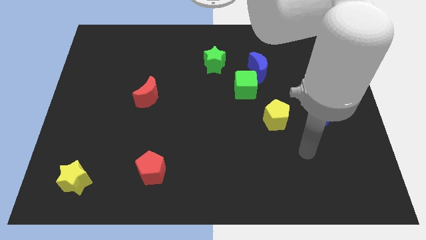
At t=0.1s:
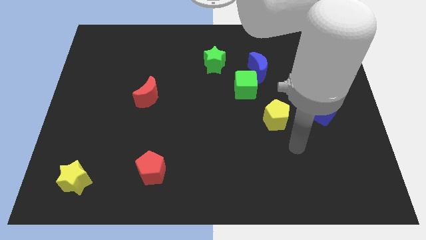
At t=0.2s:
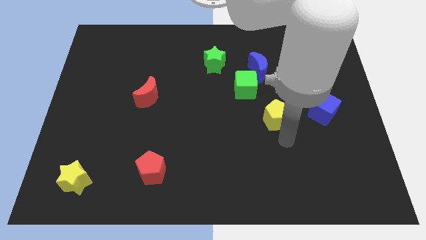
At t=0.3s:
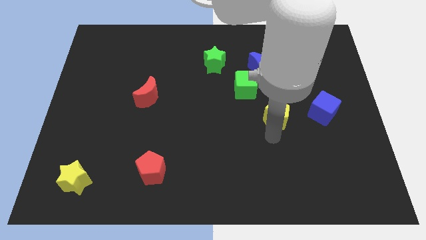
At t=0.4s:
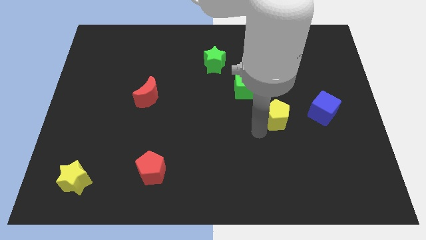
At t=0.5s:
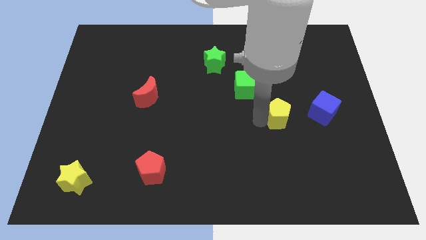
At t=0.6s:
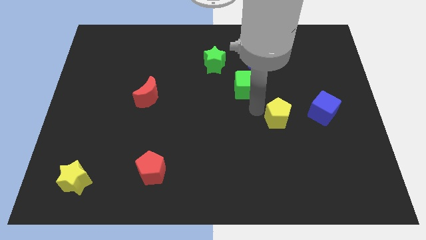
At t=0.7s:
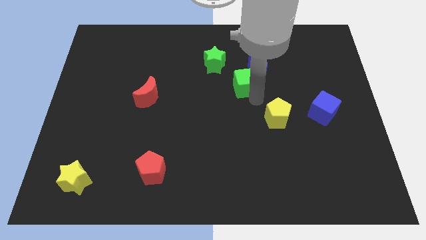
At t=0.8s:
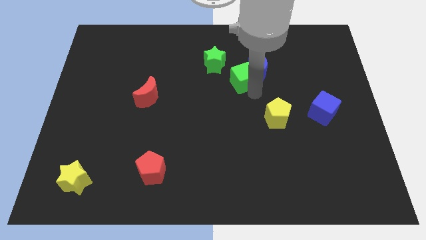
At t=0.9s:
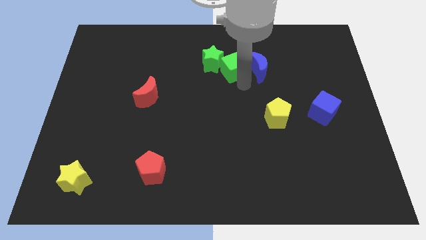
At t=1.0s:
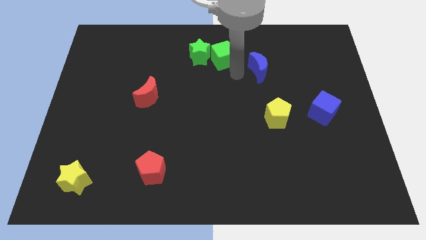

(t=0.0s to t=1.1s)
separate the blue moon from the green cube

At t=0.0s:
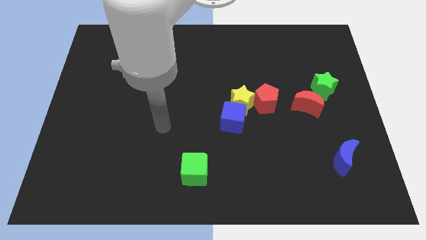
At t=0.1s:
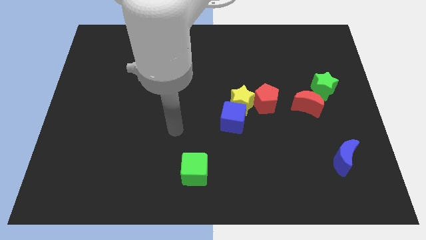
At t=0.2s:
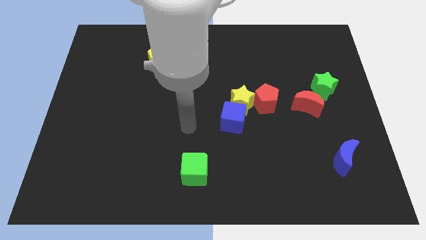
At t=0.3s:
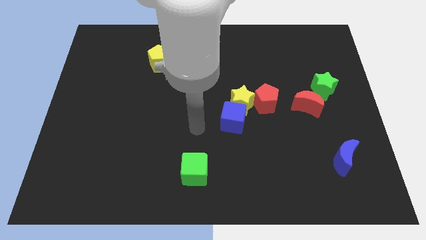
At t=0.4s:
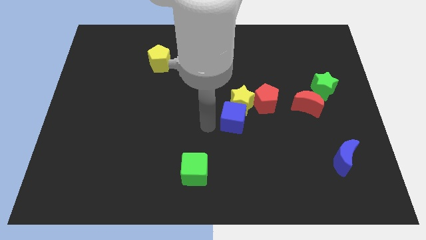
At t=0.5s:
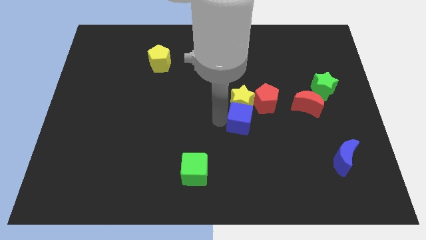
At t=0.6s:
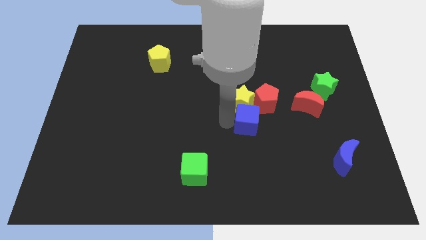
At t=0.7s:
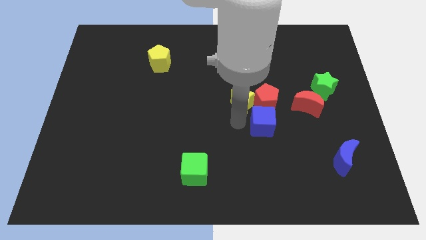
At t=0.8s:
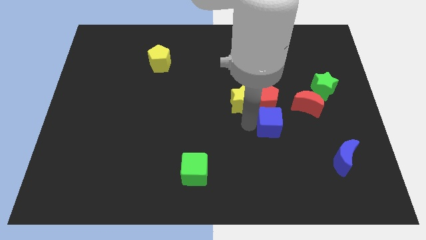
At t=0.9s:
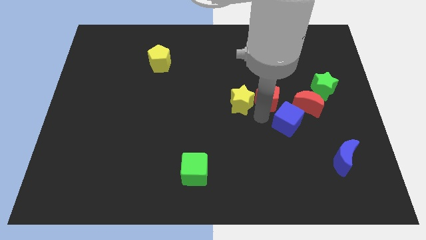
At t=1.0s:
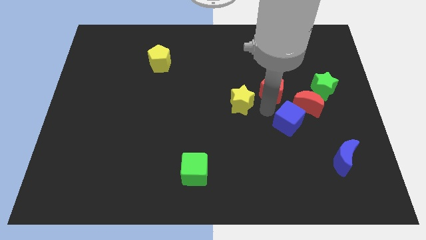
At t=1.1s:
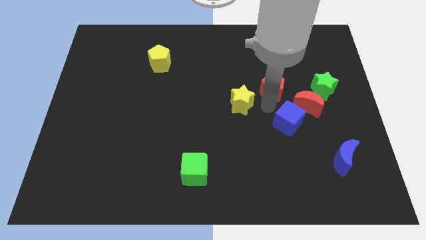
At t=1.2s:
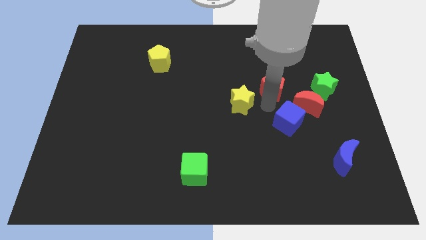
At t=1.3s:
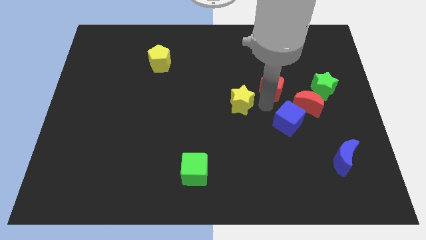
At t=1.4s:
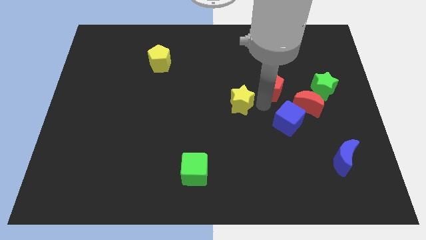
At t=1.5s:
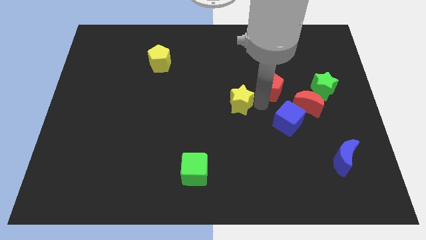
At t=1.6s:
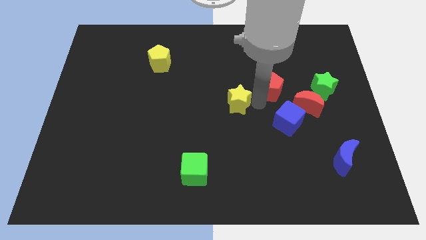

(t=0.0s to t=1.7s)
separate the yellow star from the blue cube and red pentagon

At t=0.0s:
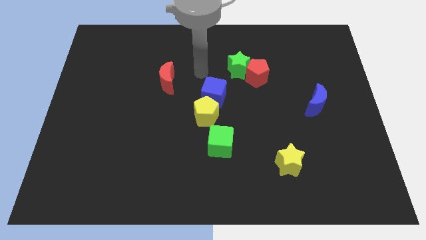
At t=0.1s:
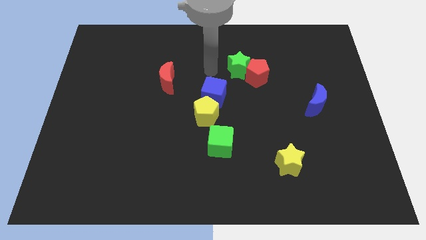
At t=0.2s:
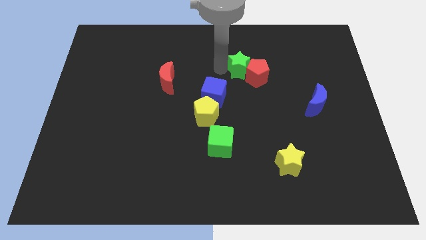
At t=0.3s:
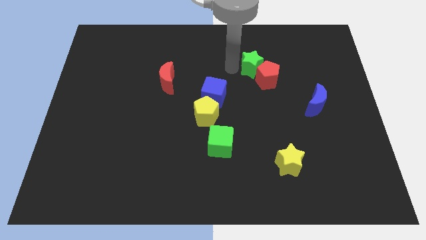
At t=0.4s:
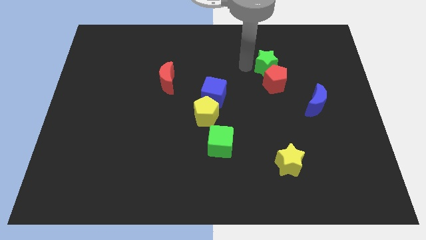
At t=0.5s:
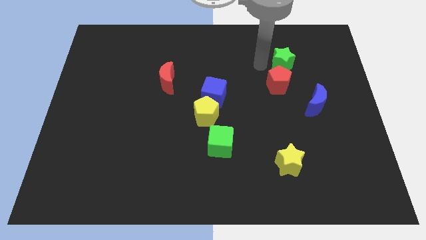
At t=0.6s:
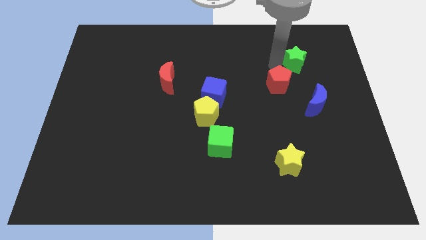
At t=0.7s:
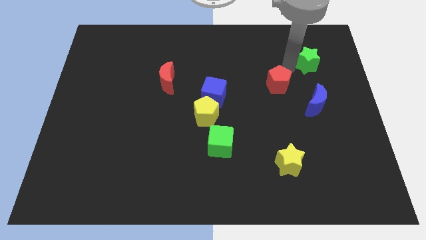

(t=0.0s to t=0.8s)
pull the red pentagon apart from the green star

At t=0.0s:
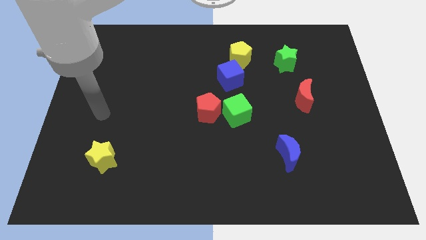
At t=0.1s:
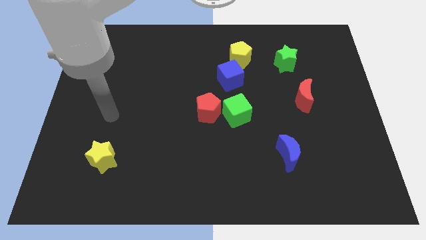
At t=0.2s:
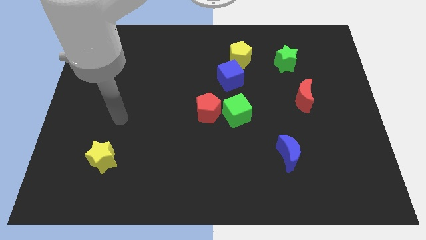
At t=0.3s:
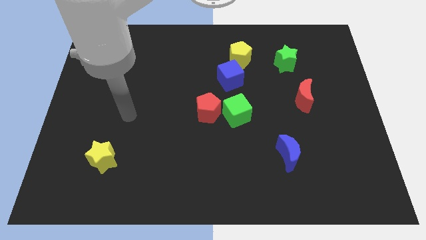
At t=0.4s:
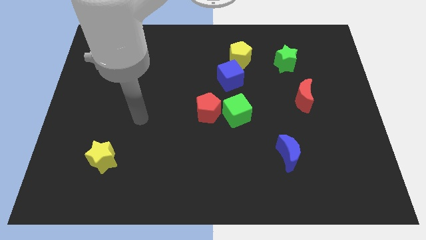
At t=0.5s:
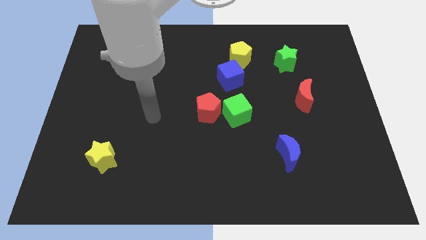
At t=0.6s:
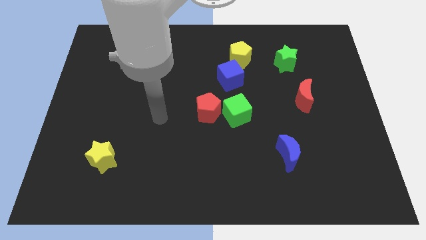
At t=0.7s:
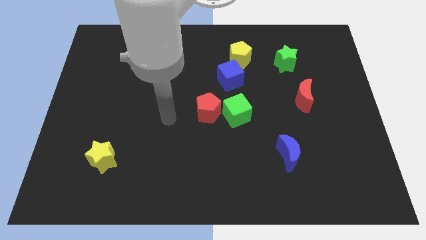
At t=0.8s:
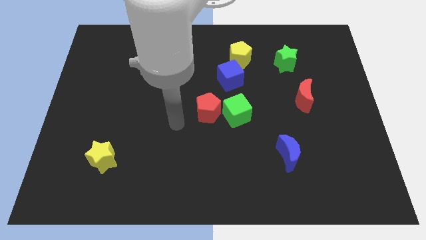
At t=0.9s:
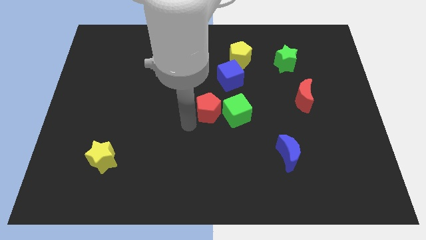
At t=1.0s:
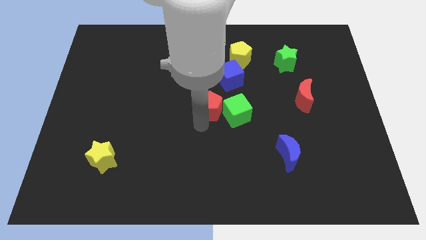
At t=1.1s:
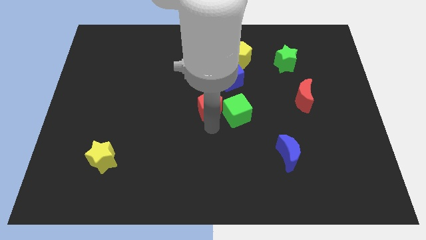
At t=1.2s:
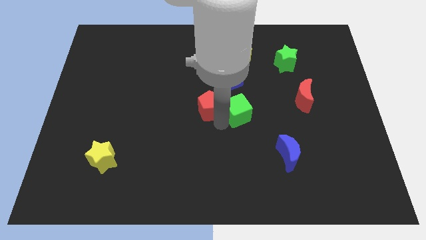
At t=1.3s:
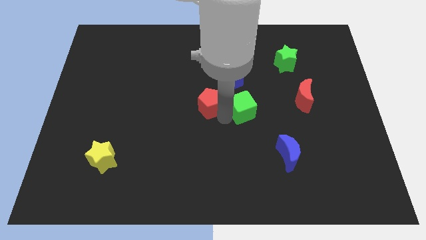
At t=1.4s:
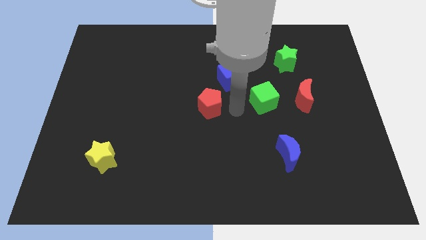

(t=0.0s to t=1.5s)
pull the red pentagon apart from the green cube

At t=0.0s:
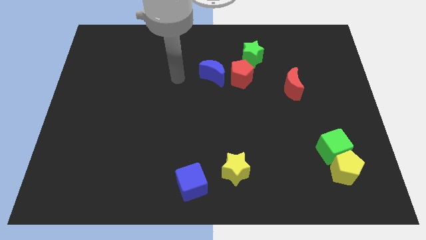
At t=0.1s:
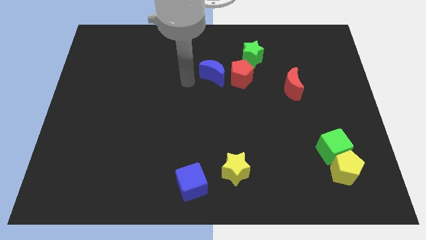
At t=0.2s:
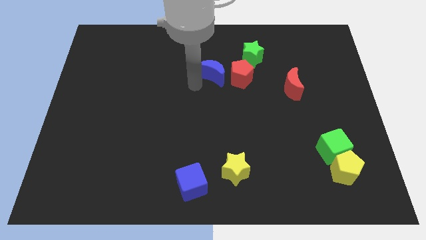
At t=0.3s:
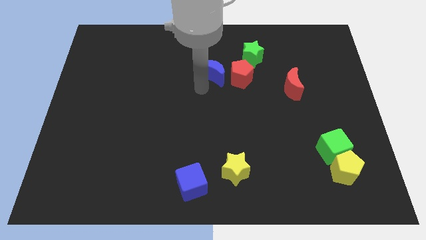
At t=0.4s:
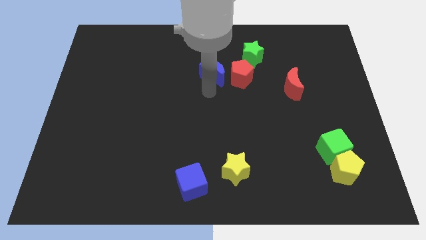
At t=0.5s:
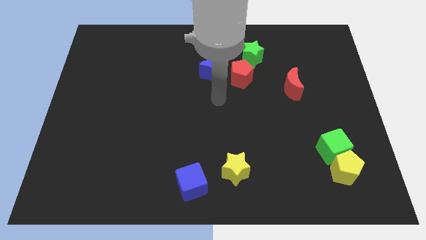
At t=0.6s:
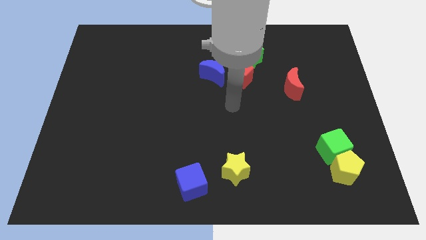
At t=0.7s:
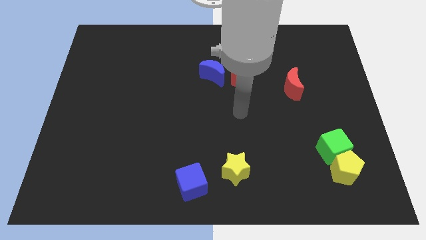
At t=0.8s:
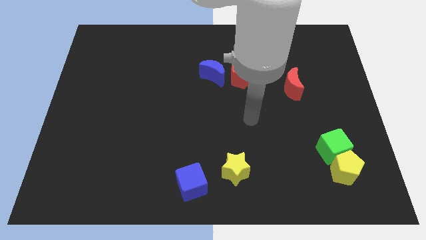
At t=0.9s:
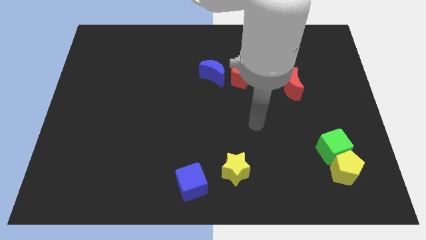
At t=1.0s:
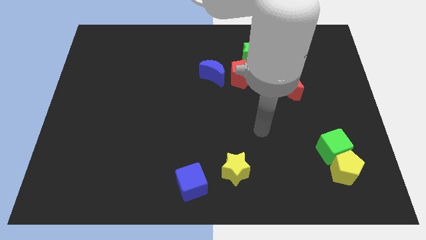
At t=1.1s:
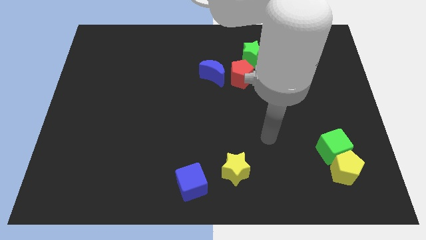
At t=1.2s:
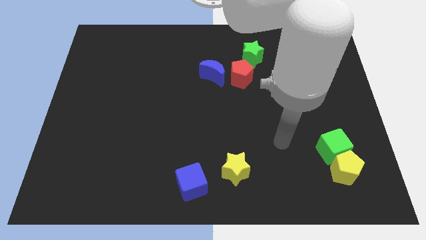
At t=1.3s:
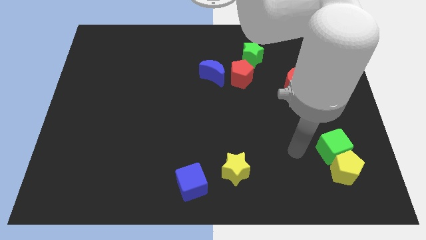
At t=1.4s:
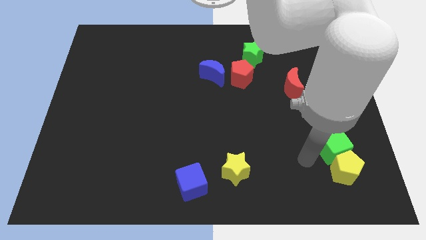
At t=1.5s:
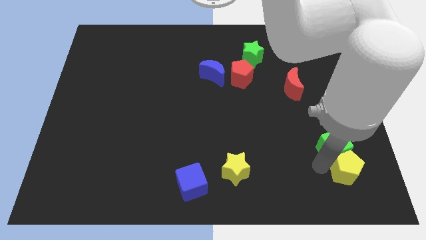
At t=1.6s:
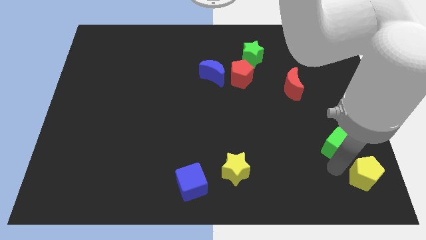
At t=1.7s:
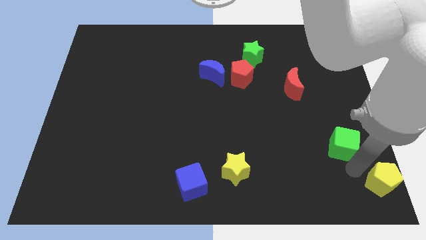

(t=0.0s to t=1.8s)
move the green cube away from the yellow pentagon

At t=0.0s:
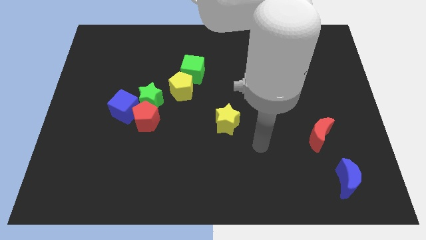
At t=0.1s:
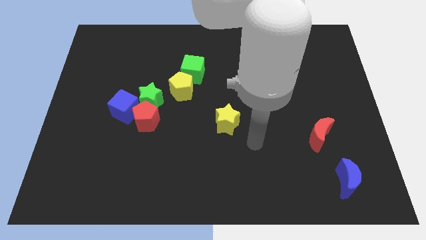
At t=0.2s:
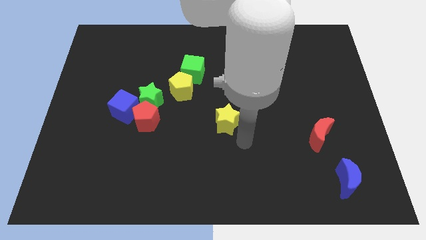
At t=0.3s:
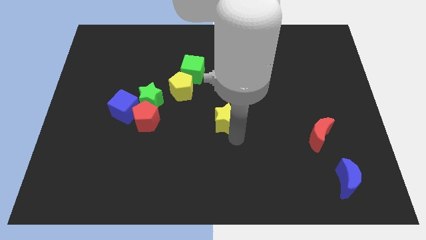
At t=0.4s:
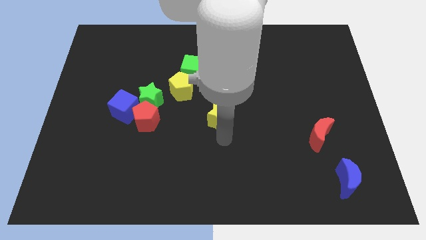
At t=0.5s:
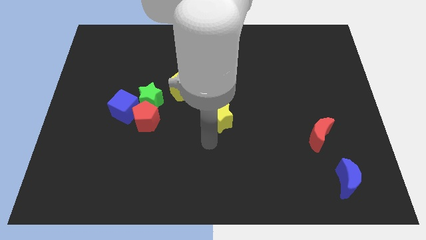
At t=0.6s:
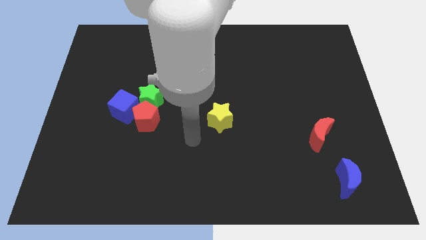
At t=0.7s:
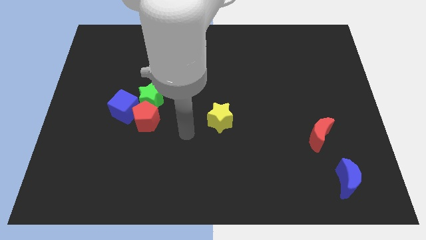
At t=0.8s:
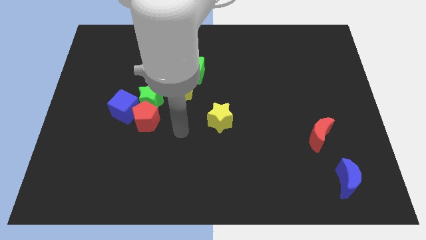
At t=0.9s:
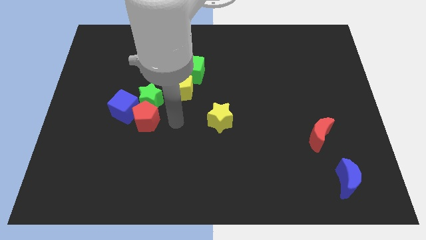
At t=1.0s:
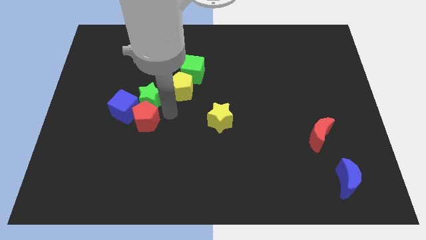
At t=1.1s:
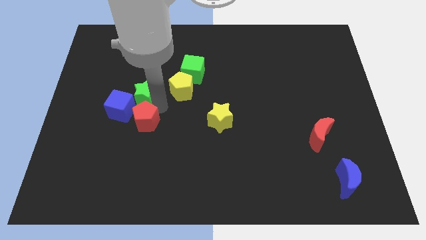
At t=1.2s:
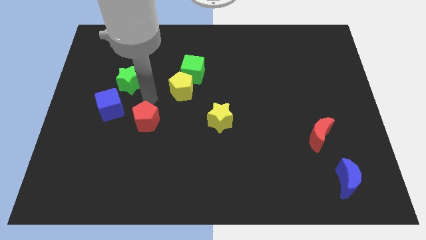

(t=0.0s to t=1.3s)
pull the red pentagon apart from the green star and blue cube

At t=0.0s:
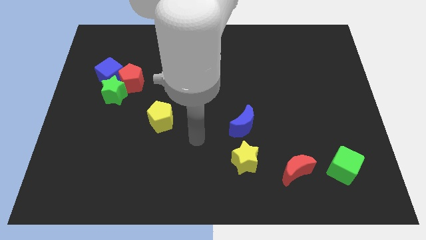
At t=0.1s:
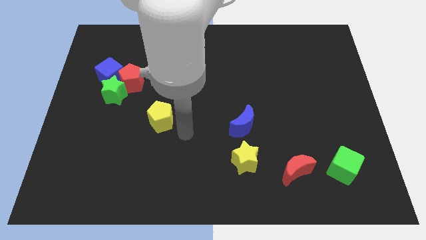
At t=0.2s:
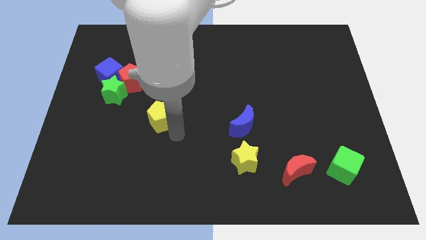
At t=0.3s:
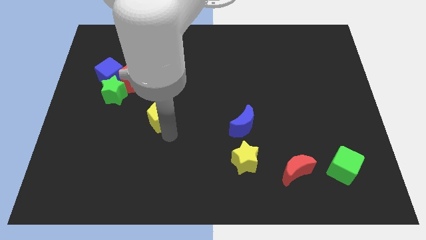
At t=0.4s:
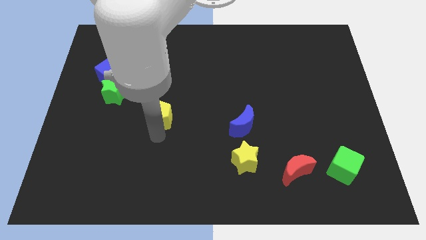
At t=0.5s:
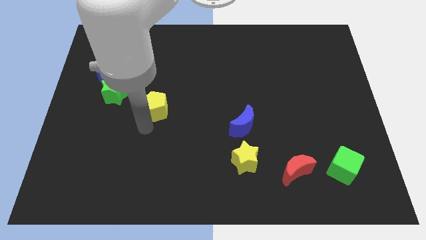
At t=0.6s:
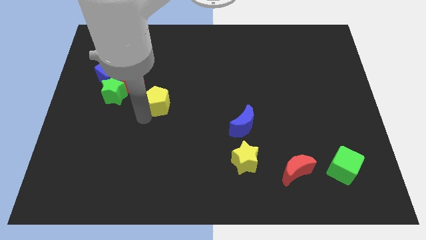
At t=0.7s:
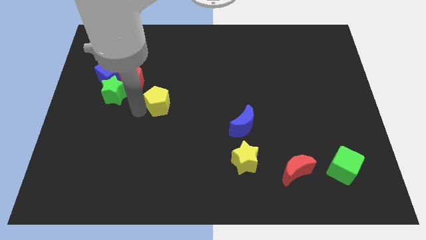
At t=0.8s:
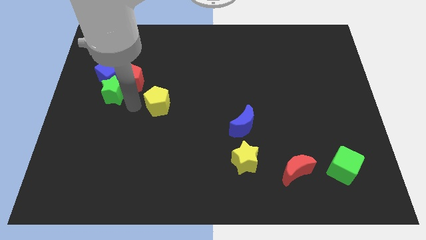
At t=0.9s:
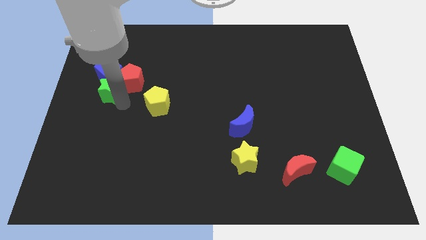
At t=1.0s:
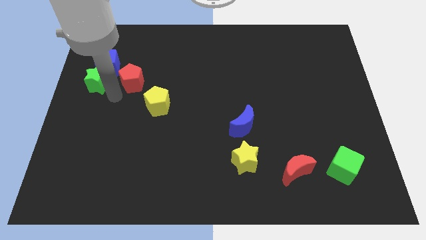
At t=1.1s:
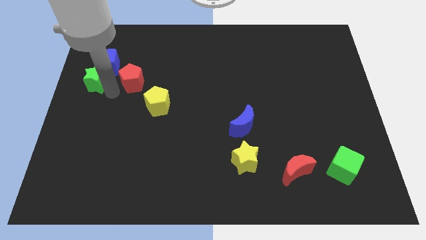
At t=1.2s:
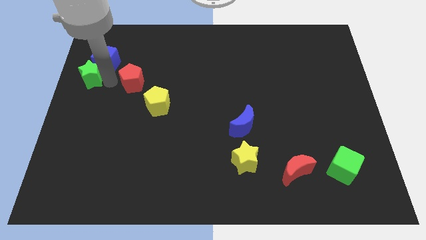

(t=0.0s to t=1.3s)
separate the red pentagon from the green star and blue cube
